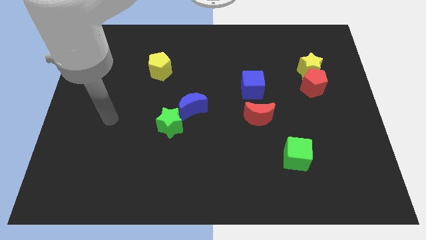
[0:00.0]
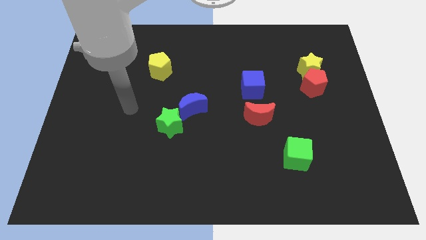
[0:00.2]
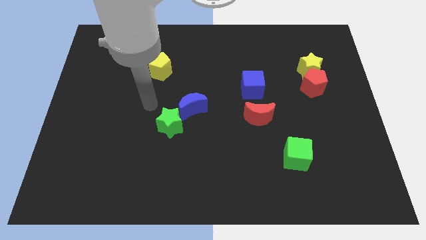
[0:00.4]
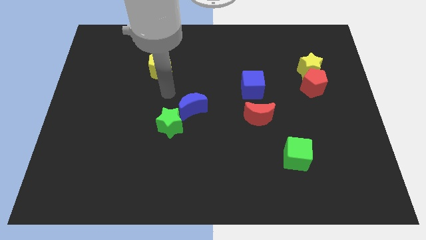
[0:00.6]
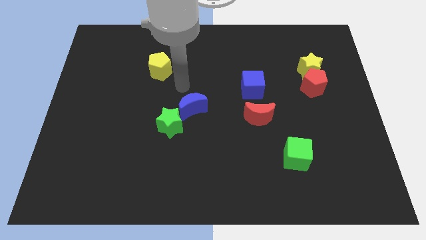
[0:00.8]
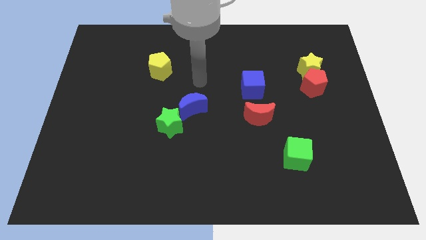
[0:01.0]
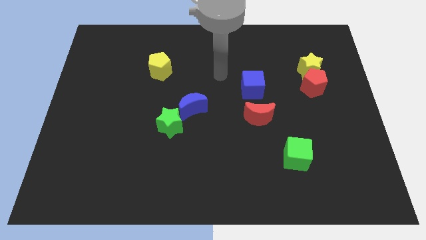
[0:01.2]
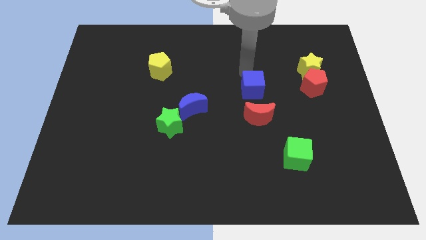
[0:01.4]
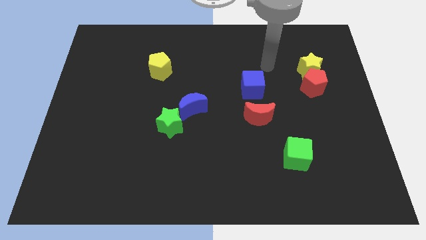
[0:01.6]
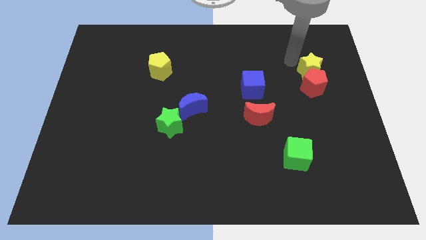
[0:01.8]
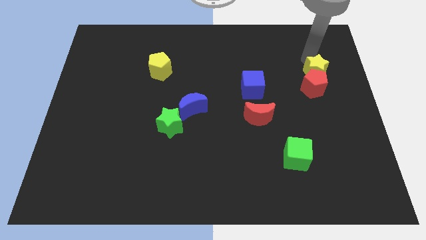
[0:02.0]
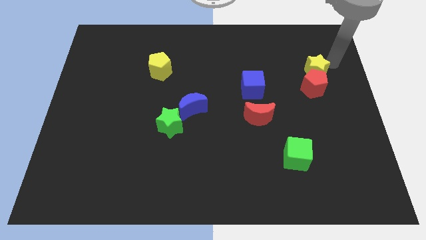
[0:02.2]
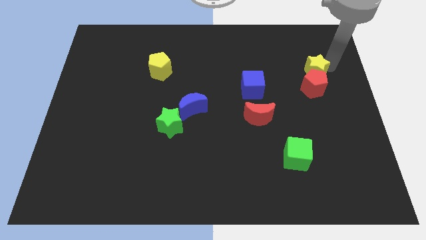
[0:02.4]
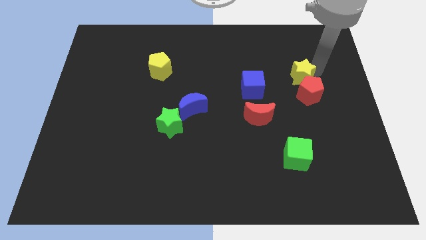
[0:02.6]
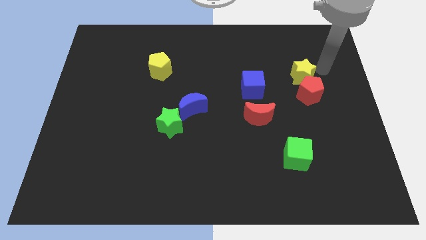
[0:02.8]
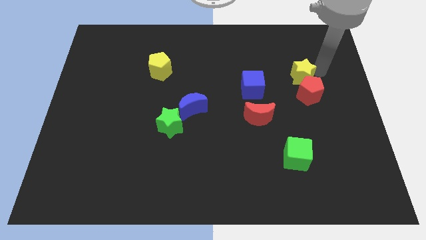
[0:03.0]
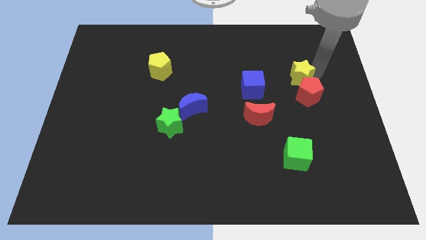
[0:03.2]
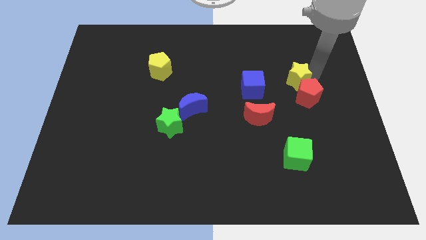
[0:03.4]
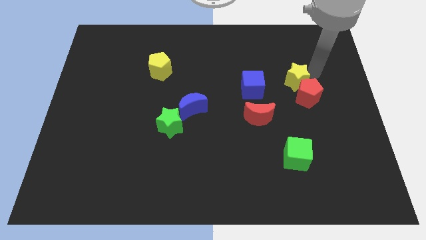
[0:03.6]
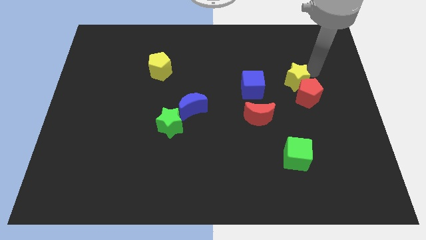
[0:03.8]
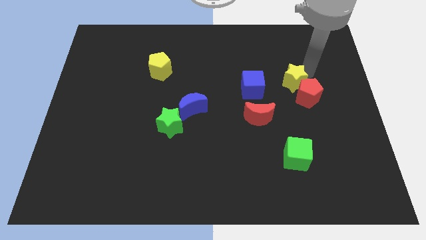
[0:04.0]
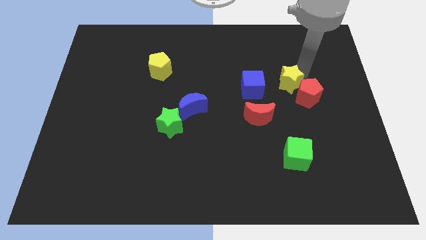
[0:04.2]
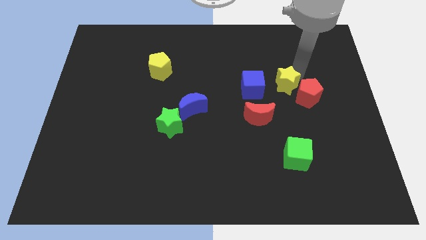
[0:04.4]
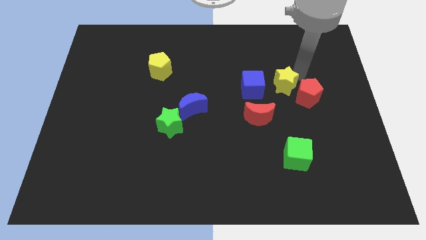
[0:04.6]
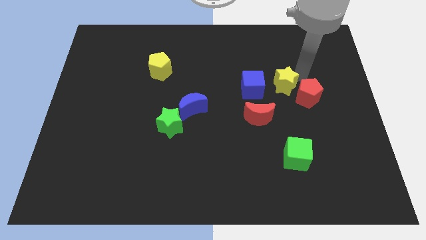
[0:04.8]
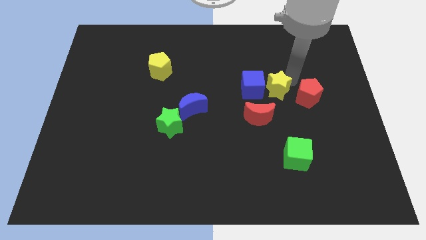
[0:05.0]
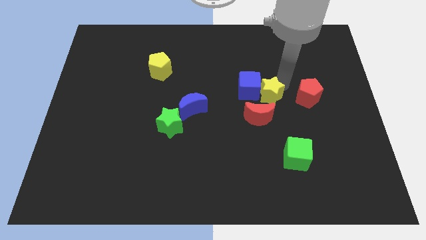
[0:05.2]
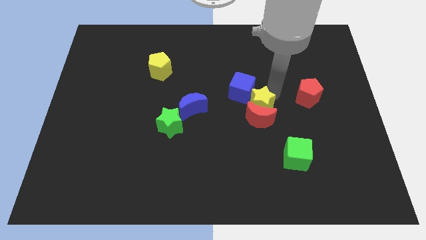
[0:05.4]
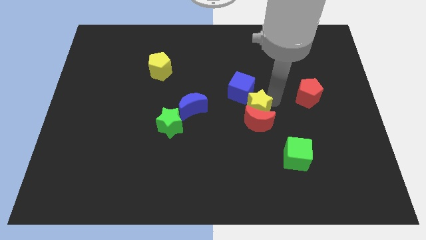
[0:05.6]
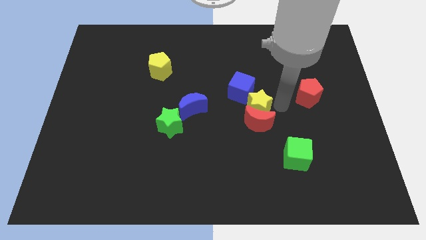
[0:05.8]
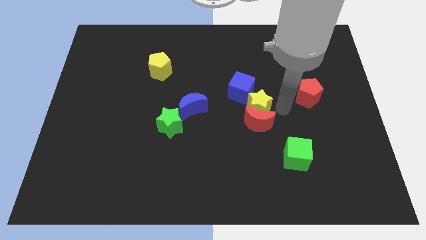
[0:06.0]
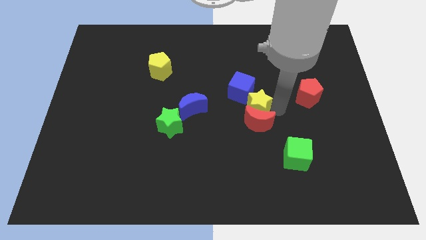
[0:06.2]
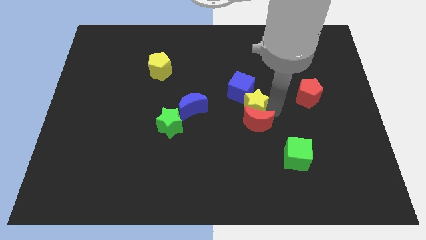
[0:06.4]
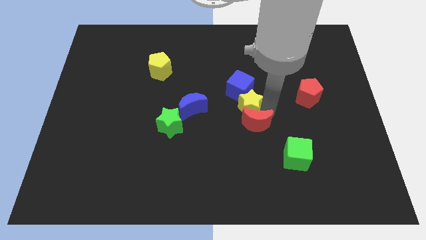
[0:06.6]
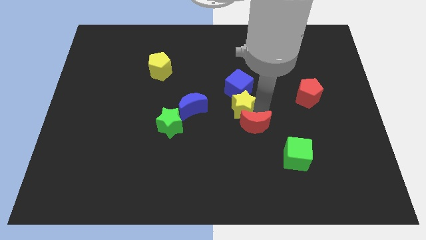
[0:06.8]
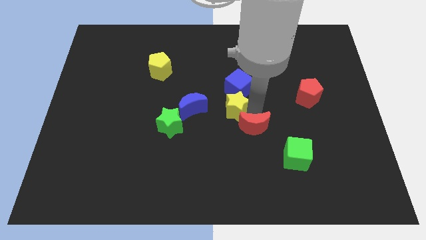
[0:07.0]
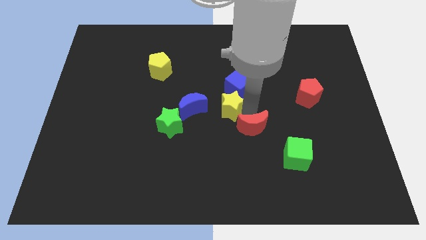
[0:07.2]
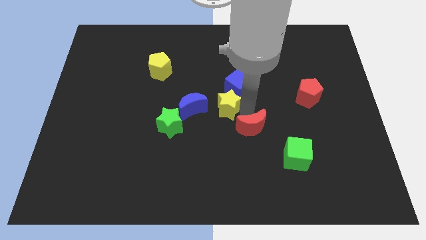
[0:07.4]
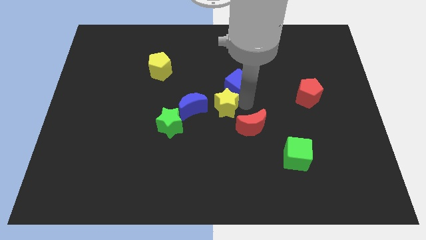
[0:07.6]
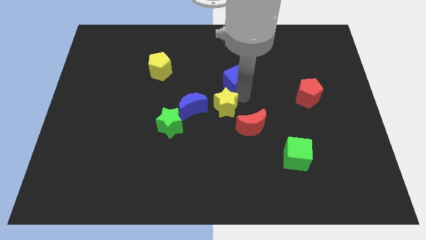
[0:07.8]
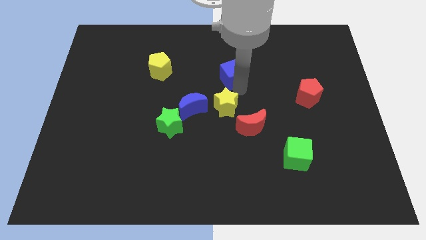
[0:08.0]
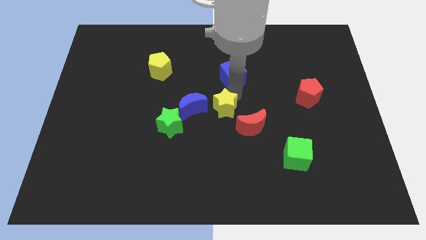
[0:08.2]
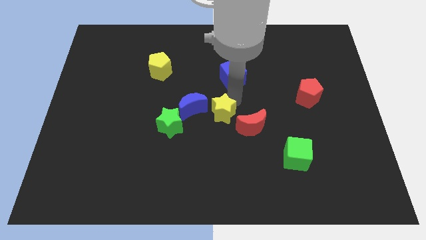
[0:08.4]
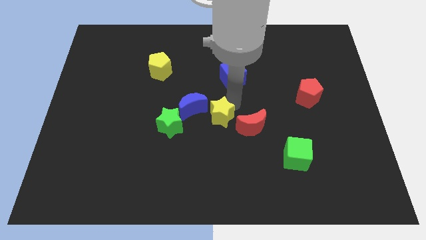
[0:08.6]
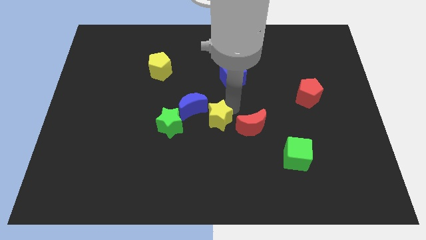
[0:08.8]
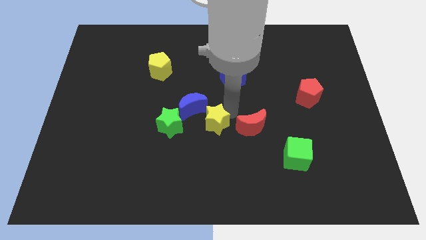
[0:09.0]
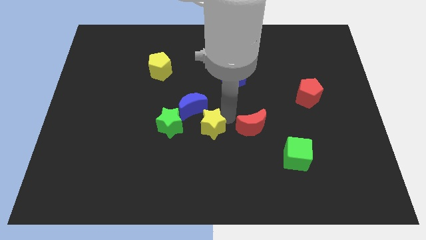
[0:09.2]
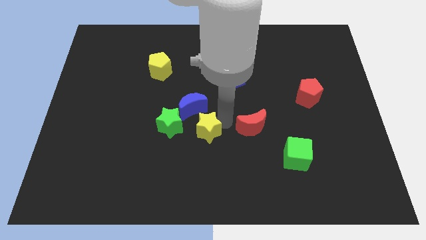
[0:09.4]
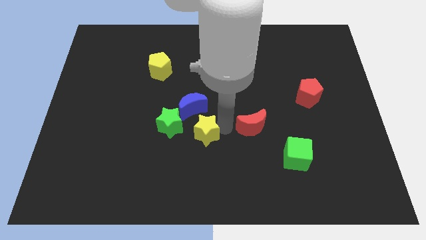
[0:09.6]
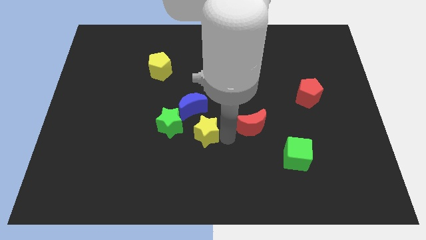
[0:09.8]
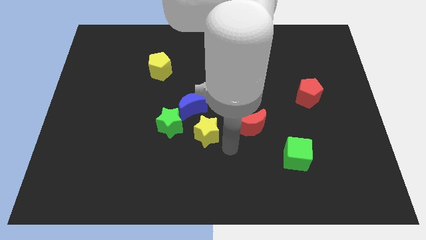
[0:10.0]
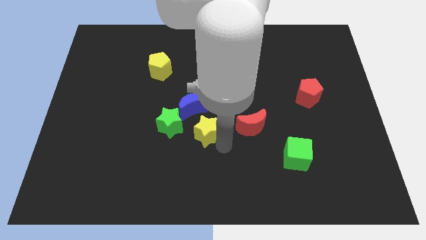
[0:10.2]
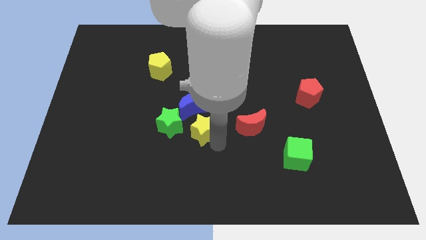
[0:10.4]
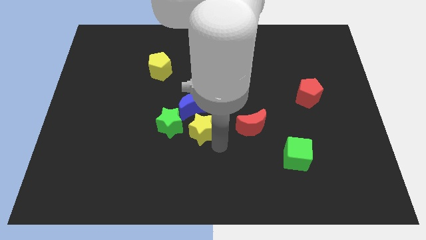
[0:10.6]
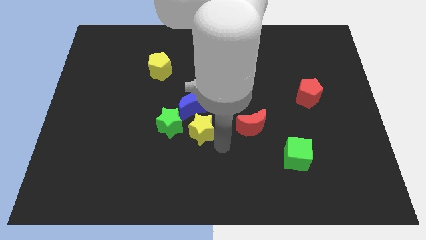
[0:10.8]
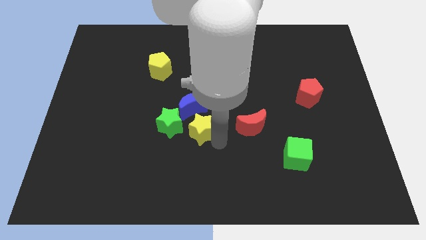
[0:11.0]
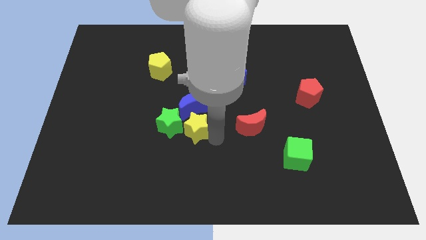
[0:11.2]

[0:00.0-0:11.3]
put the yellow star close to the green star

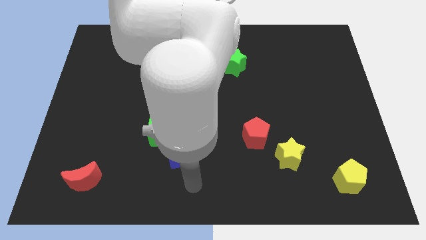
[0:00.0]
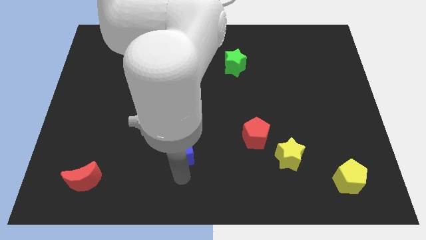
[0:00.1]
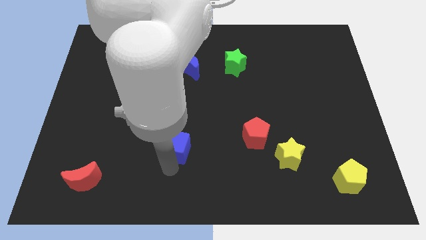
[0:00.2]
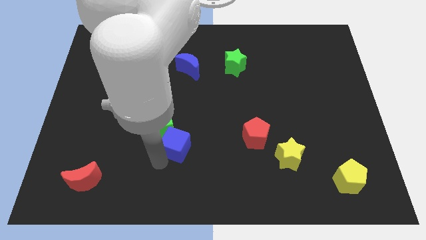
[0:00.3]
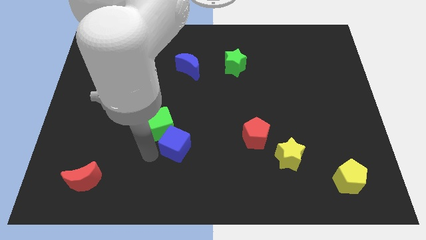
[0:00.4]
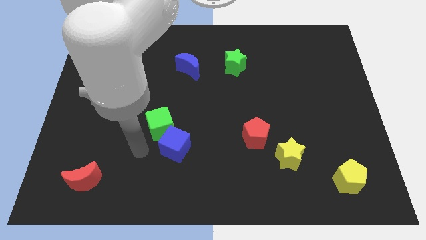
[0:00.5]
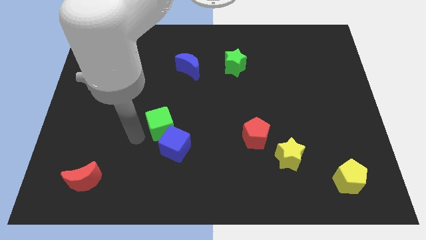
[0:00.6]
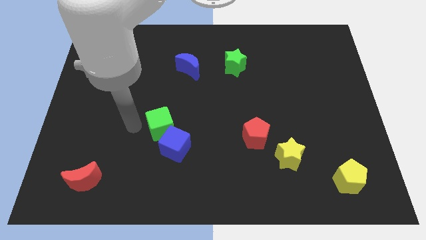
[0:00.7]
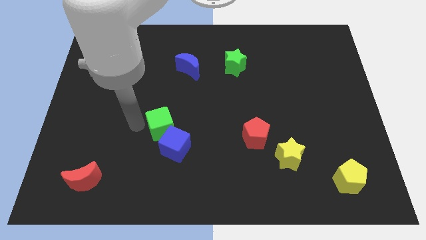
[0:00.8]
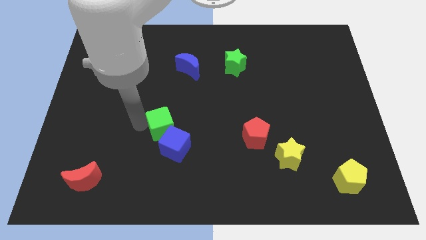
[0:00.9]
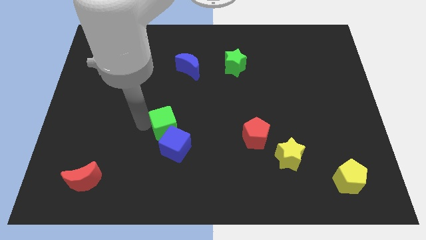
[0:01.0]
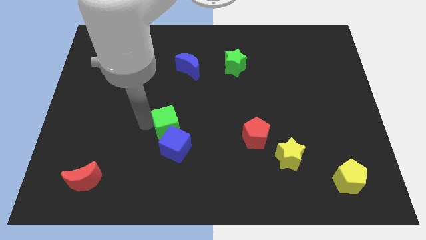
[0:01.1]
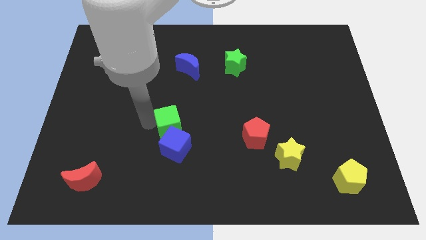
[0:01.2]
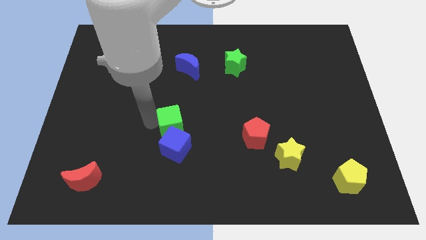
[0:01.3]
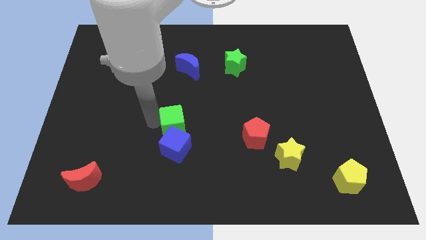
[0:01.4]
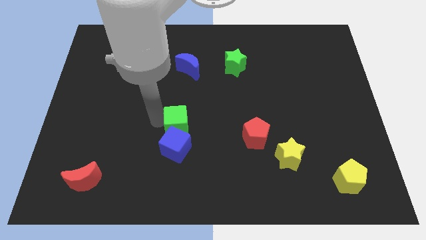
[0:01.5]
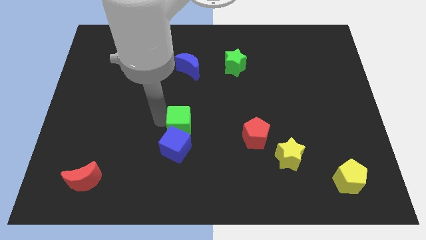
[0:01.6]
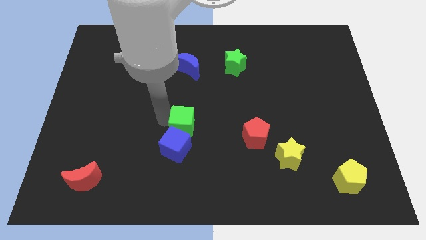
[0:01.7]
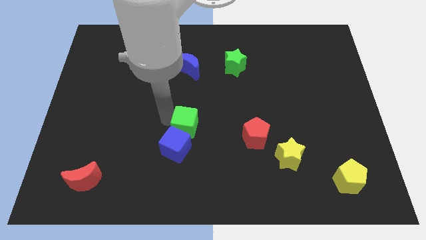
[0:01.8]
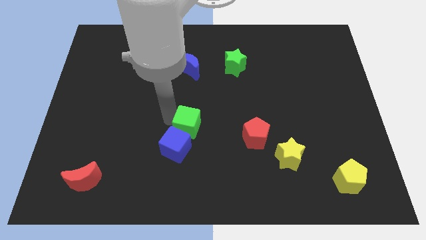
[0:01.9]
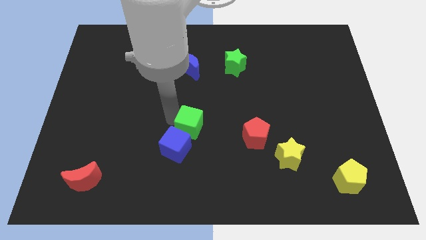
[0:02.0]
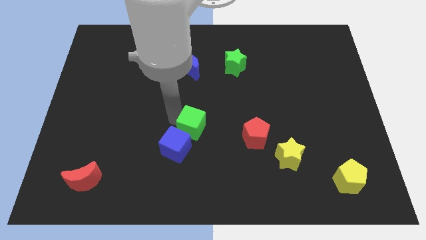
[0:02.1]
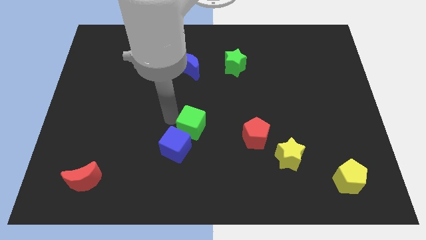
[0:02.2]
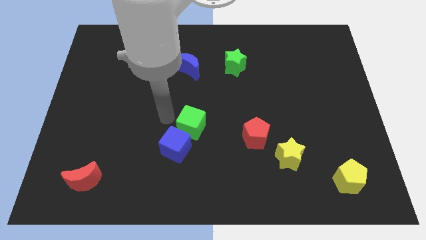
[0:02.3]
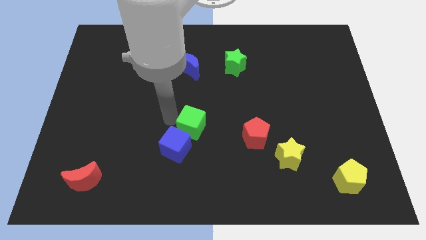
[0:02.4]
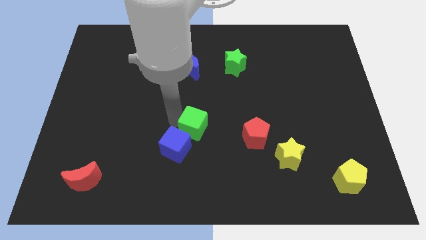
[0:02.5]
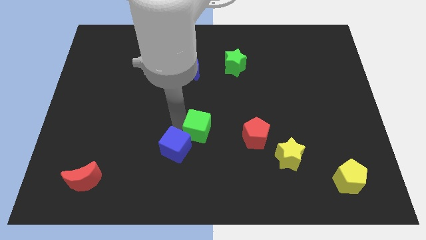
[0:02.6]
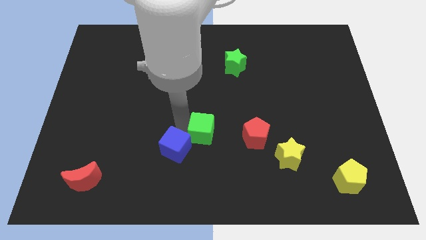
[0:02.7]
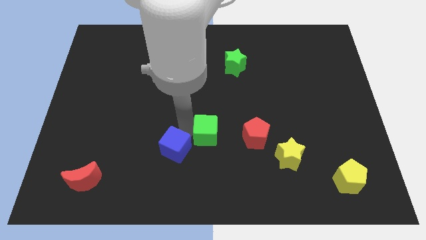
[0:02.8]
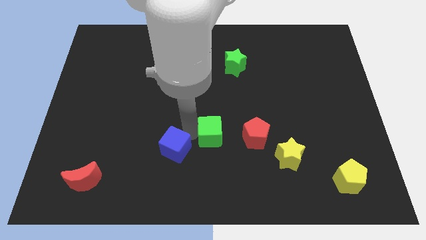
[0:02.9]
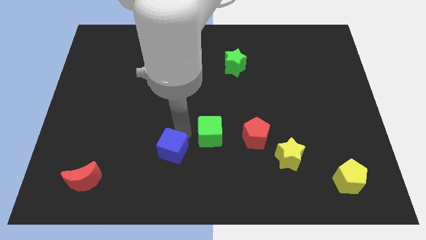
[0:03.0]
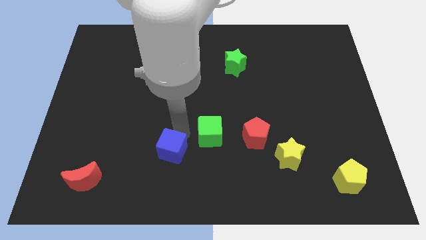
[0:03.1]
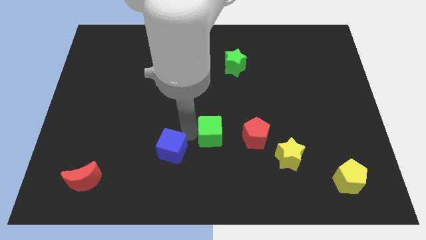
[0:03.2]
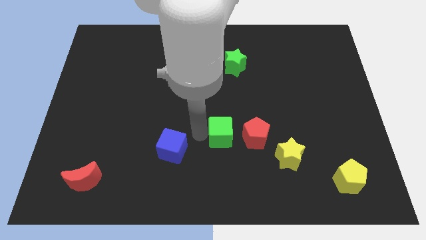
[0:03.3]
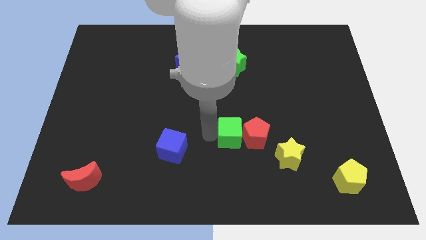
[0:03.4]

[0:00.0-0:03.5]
move the green cube to the red pentagon
